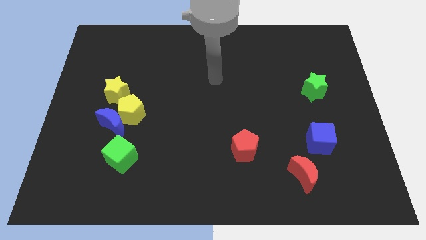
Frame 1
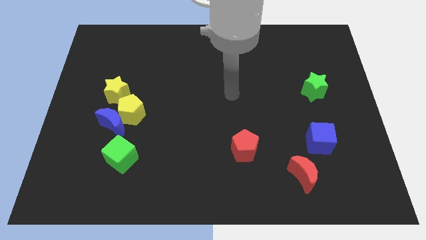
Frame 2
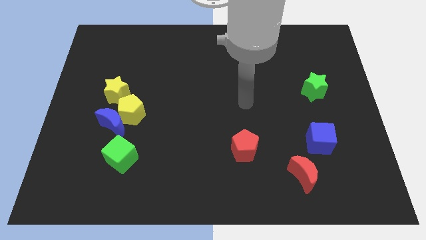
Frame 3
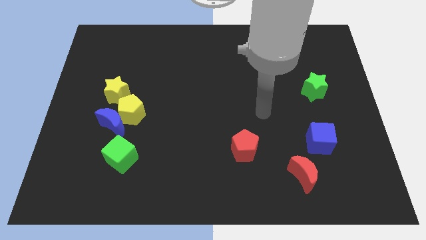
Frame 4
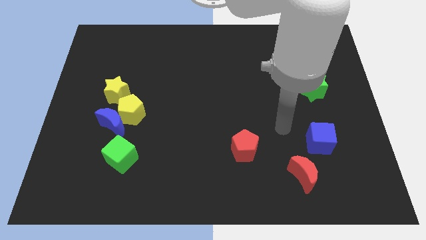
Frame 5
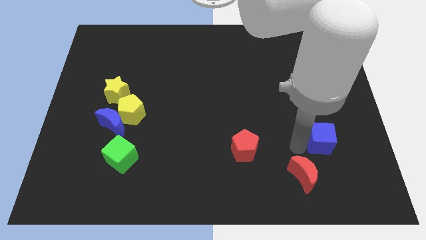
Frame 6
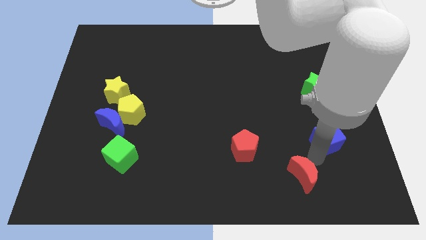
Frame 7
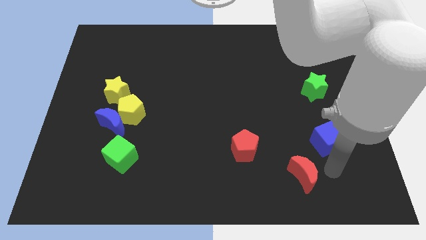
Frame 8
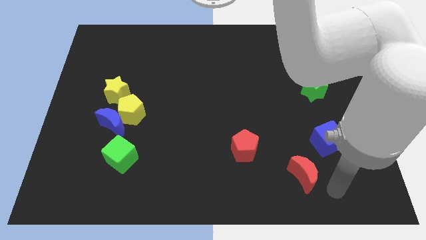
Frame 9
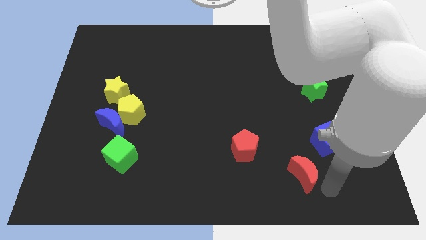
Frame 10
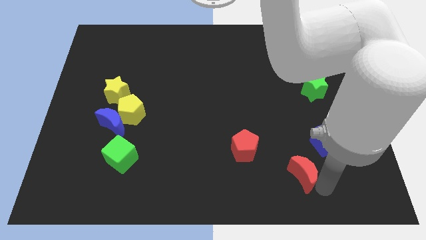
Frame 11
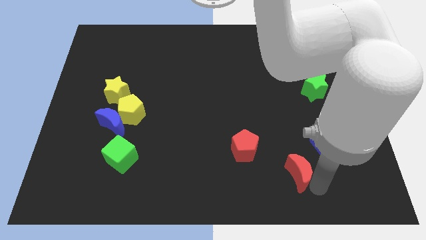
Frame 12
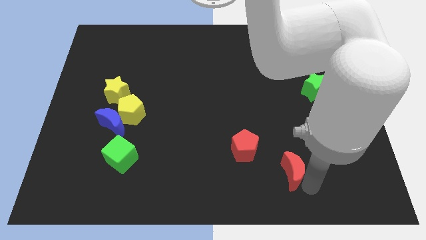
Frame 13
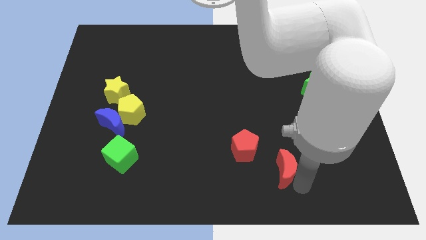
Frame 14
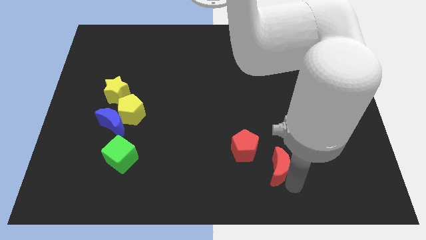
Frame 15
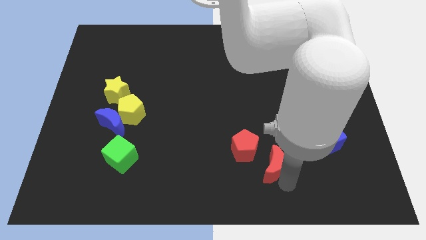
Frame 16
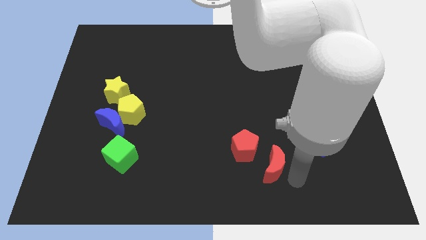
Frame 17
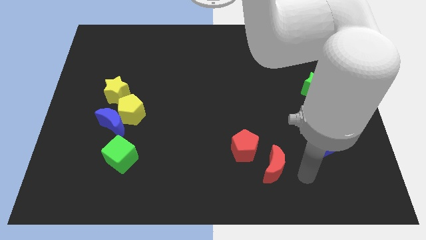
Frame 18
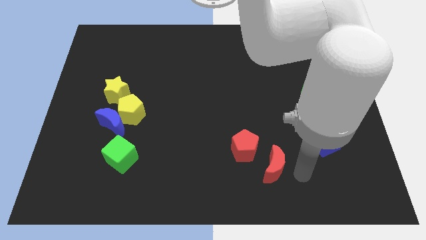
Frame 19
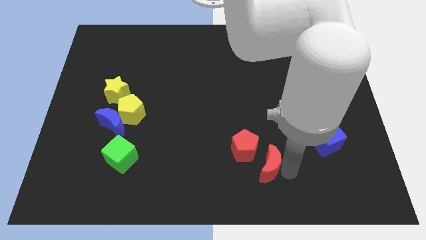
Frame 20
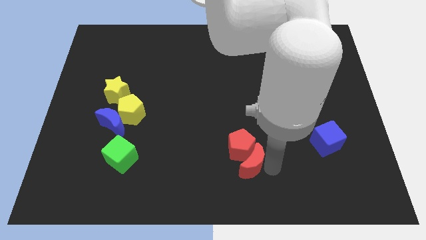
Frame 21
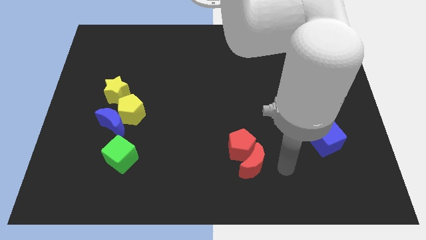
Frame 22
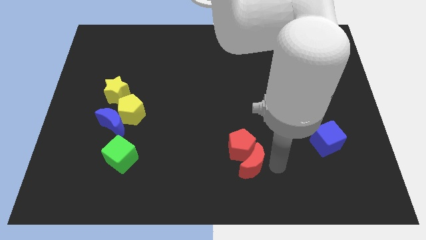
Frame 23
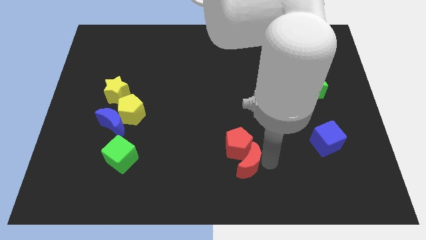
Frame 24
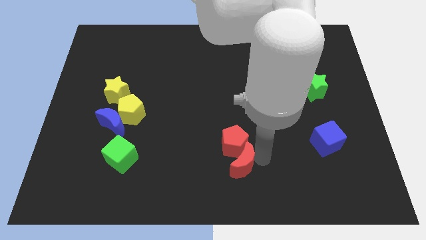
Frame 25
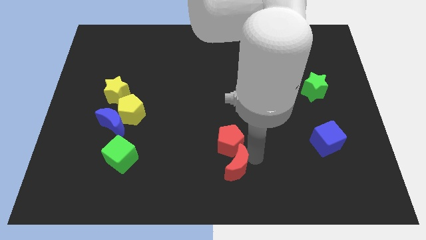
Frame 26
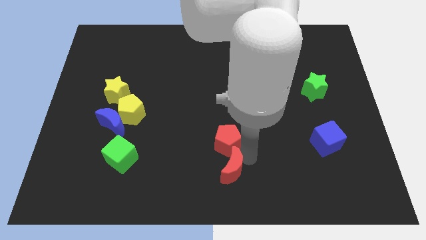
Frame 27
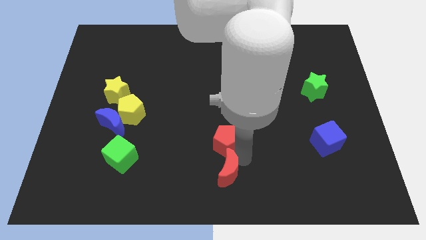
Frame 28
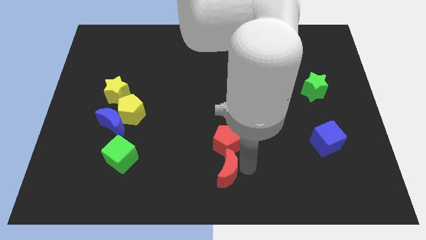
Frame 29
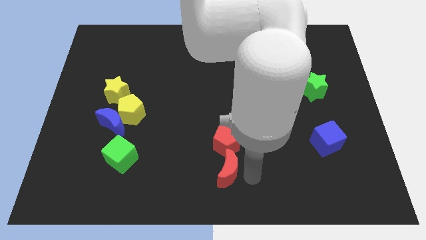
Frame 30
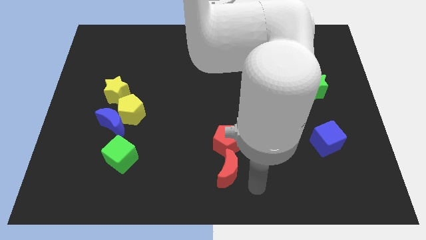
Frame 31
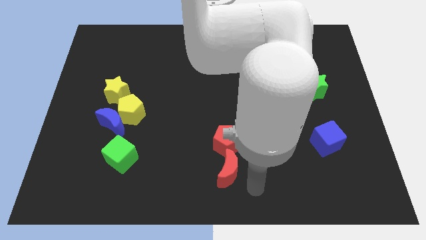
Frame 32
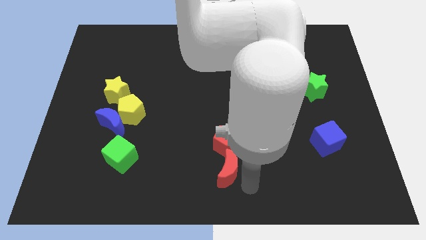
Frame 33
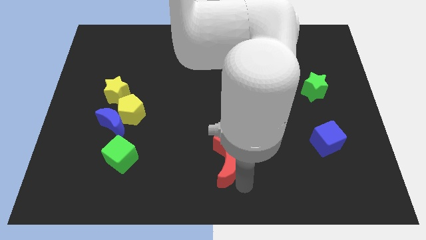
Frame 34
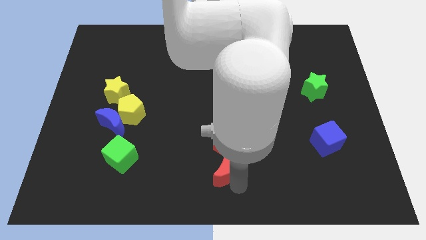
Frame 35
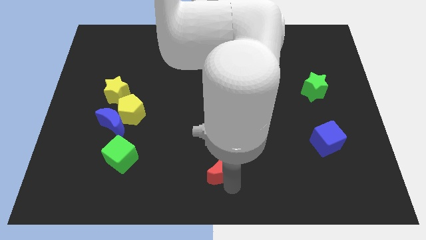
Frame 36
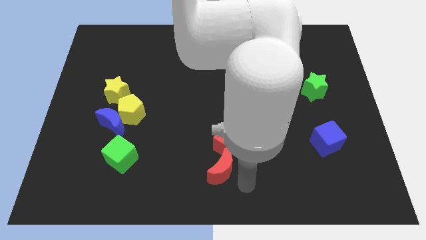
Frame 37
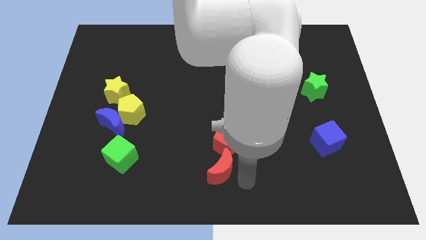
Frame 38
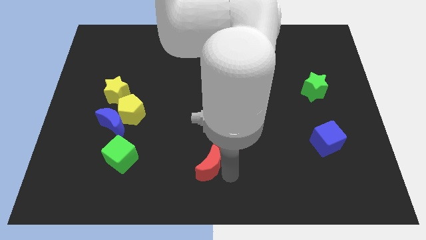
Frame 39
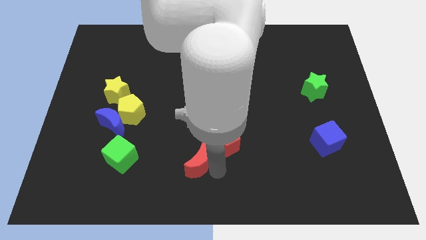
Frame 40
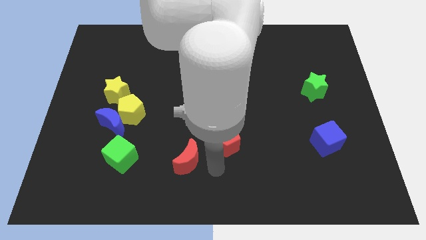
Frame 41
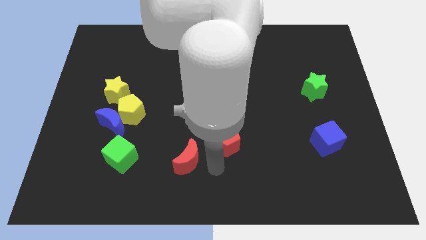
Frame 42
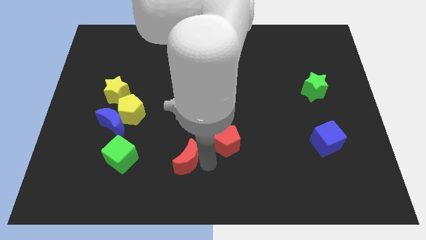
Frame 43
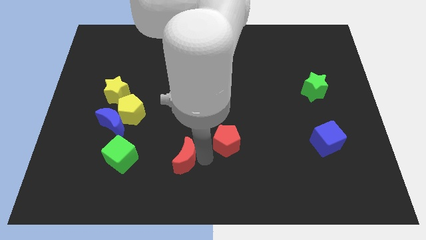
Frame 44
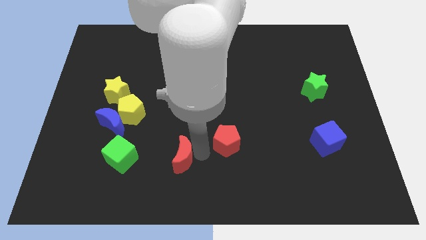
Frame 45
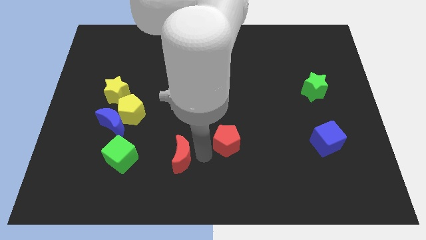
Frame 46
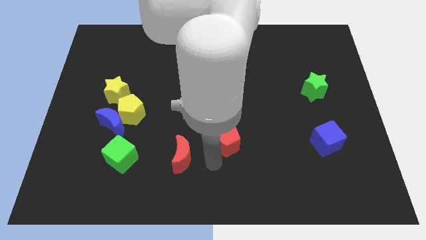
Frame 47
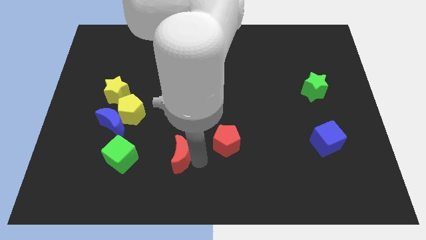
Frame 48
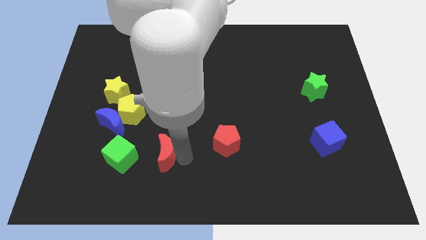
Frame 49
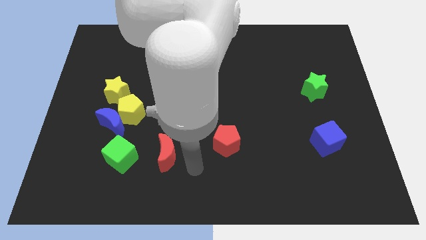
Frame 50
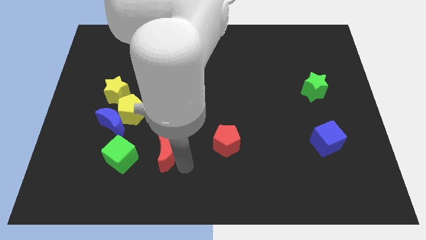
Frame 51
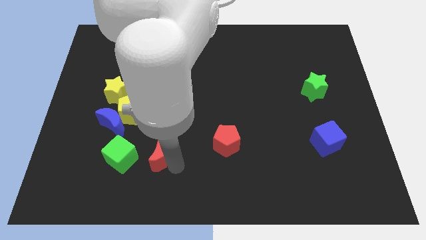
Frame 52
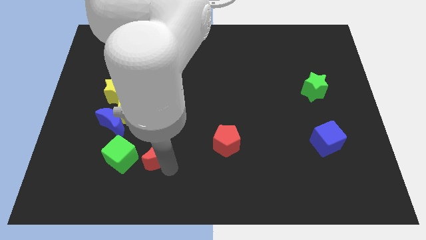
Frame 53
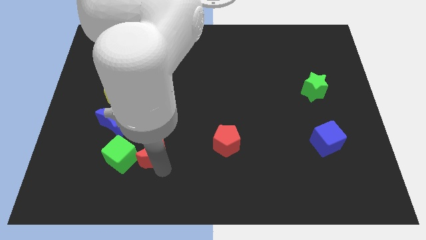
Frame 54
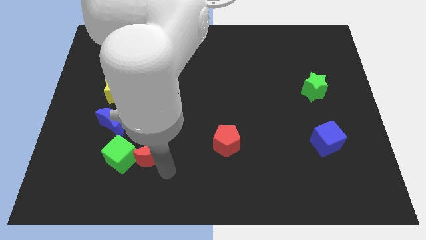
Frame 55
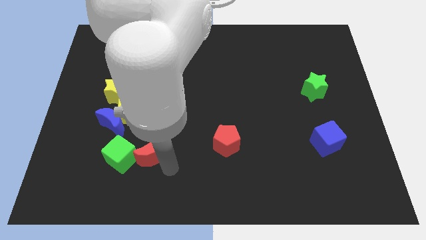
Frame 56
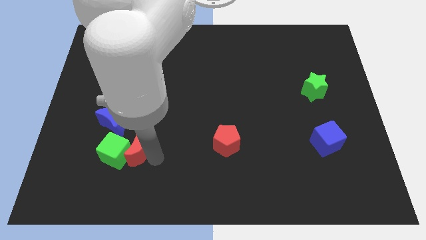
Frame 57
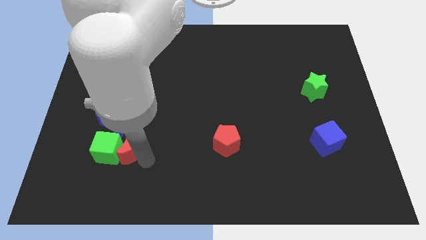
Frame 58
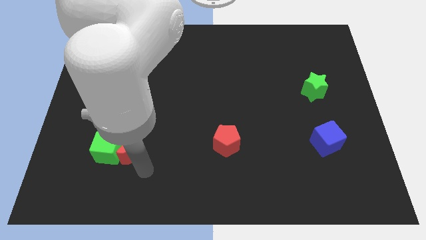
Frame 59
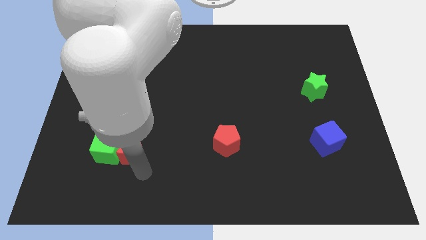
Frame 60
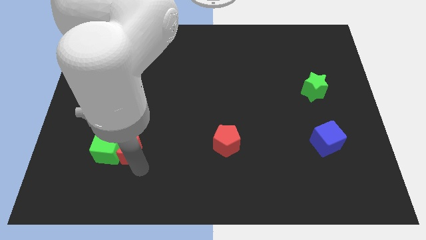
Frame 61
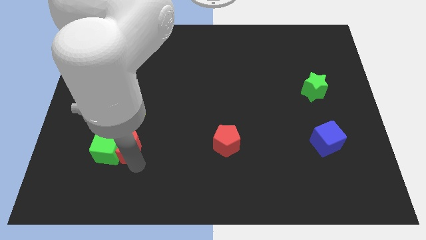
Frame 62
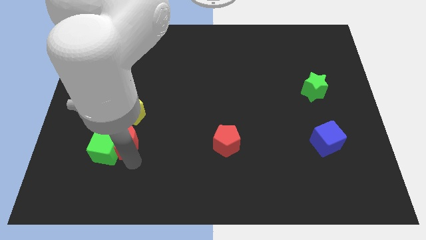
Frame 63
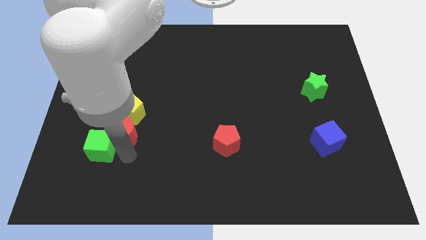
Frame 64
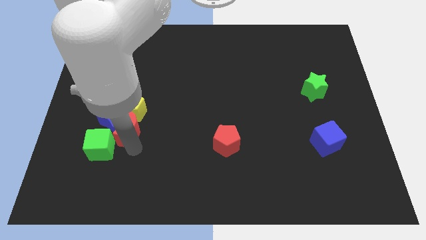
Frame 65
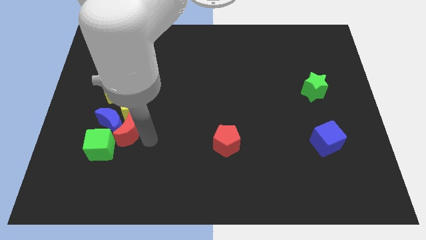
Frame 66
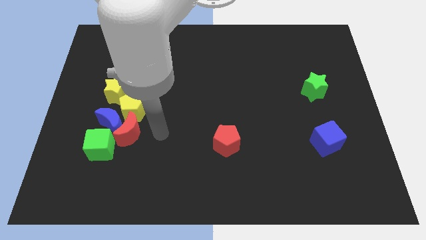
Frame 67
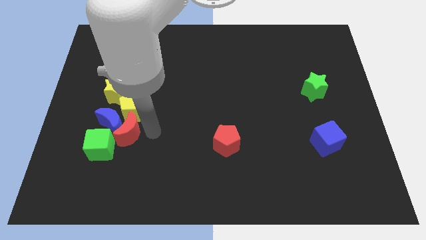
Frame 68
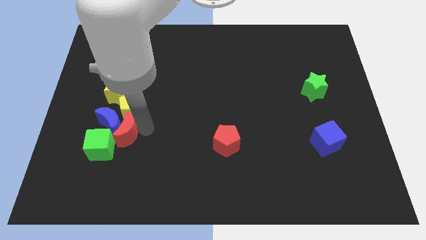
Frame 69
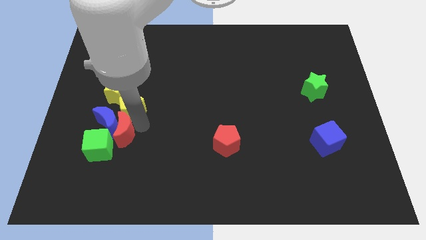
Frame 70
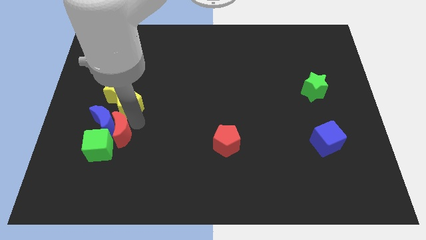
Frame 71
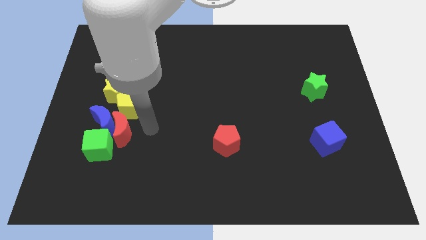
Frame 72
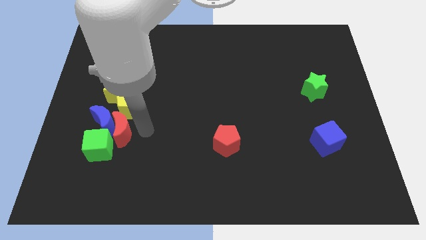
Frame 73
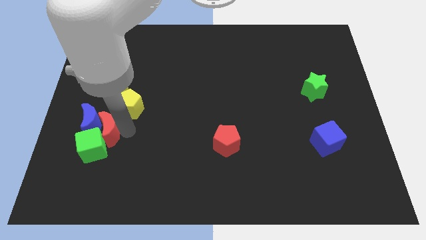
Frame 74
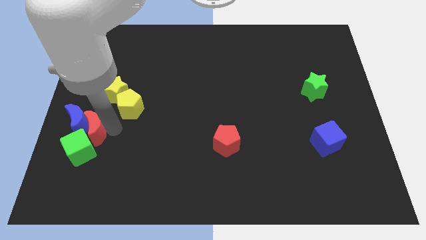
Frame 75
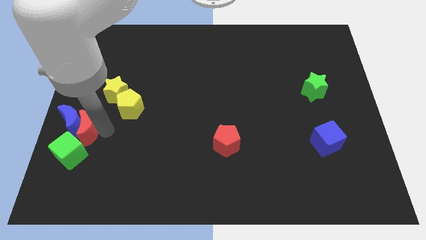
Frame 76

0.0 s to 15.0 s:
slide the red moon to the center left
